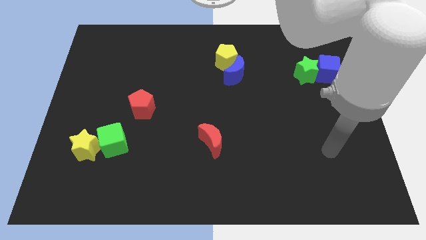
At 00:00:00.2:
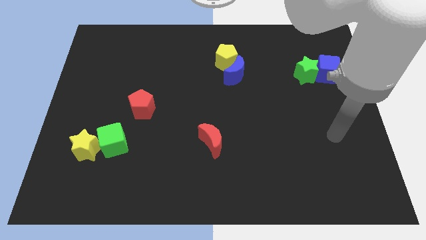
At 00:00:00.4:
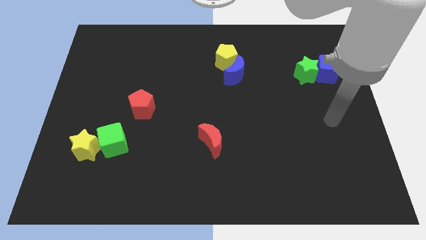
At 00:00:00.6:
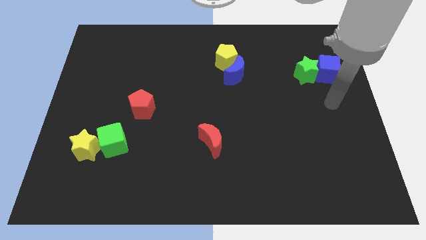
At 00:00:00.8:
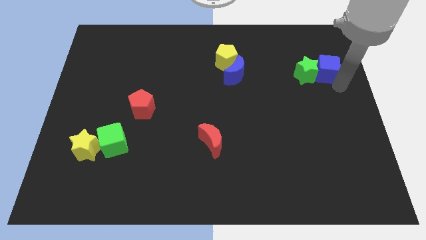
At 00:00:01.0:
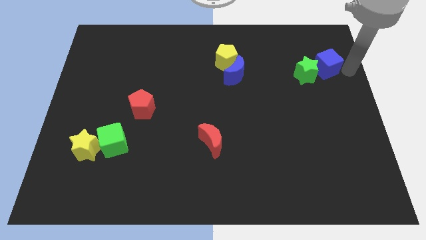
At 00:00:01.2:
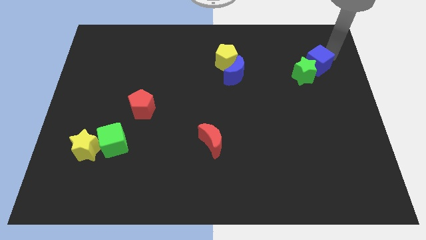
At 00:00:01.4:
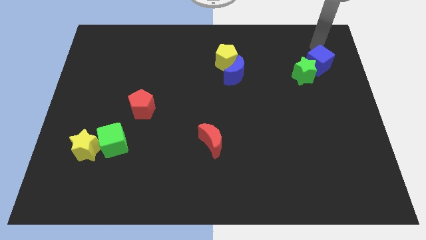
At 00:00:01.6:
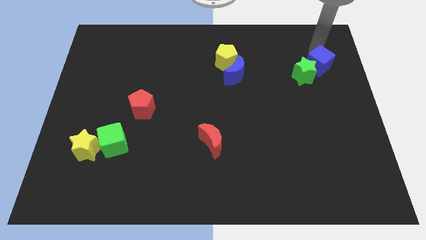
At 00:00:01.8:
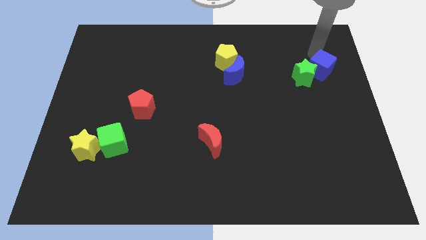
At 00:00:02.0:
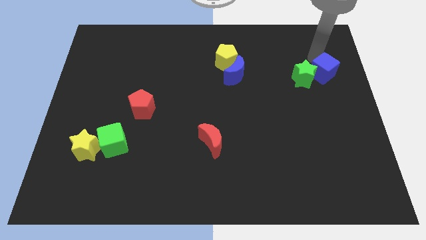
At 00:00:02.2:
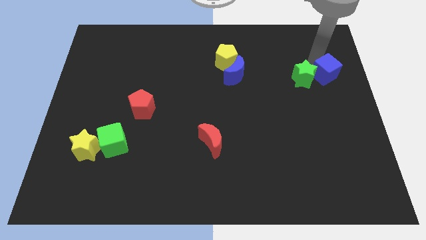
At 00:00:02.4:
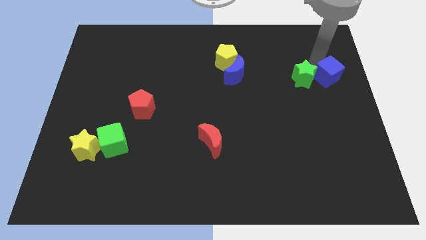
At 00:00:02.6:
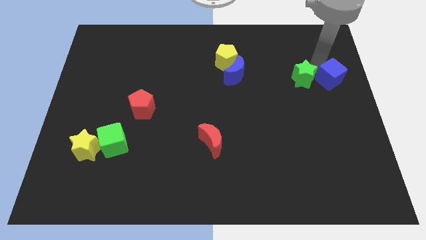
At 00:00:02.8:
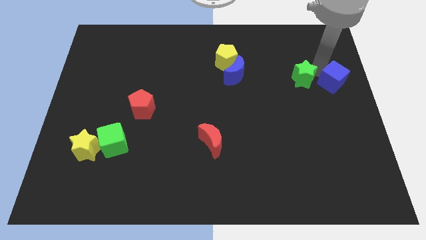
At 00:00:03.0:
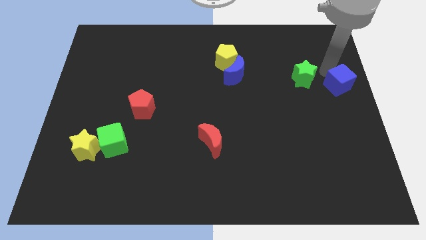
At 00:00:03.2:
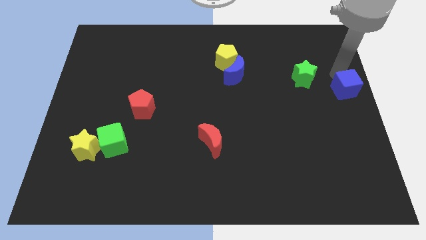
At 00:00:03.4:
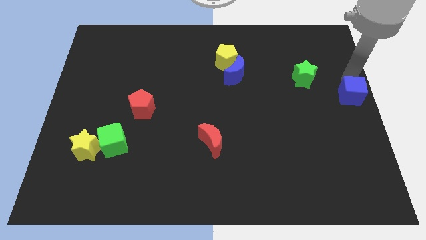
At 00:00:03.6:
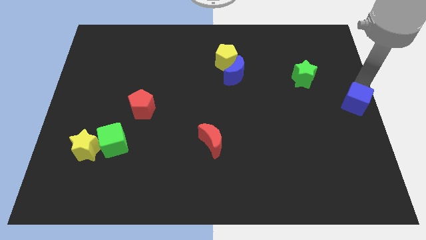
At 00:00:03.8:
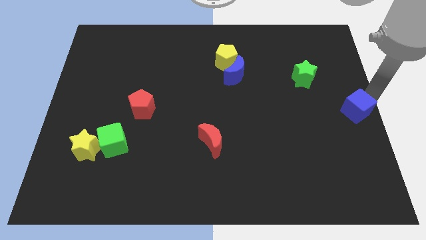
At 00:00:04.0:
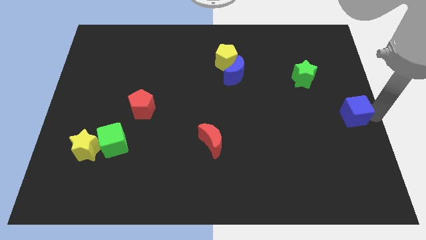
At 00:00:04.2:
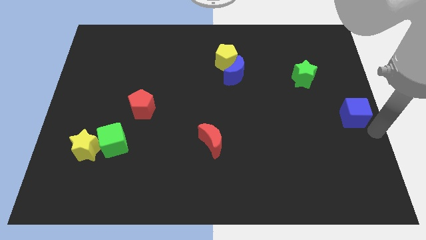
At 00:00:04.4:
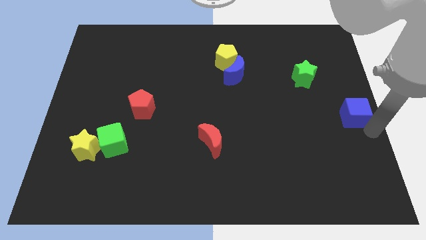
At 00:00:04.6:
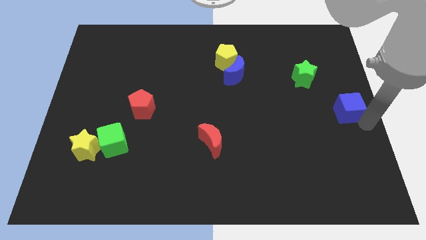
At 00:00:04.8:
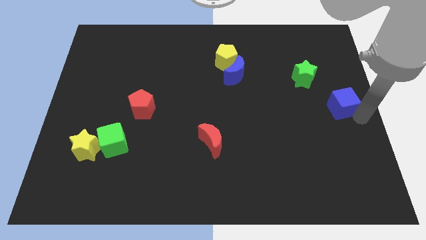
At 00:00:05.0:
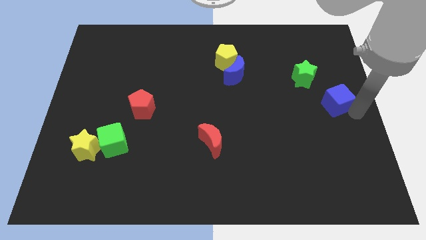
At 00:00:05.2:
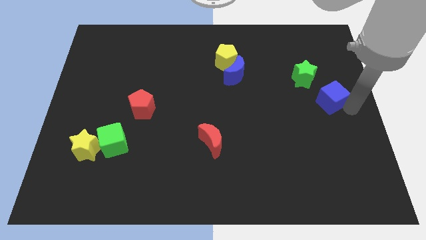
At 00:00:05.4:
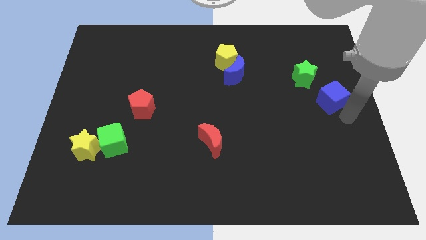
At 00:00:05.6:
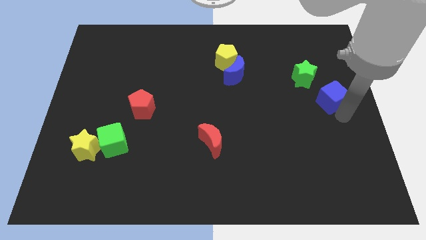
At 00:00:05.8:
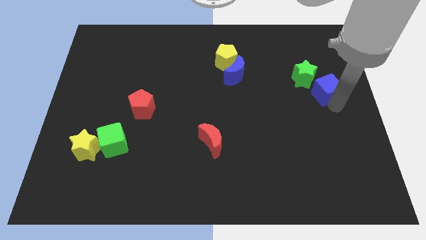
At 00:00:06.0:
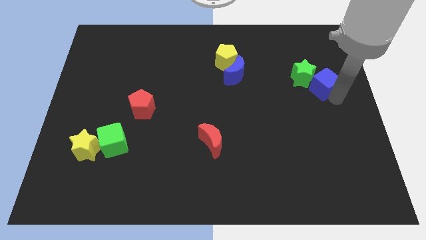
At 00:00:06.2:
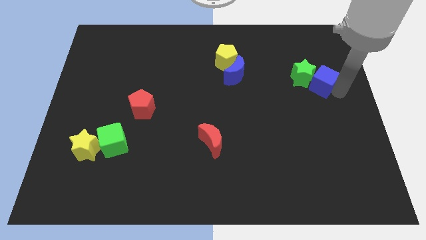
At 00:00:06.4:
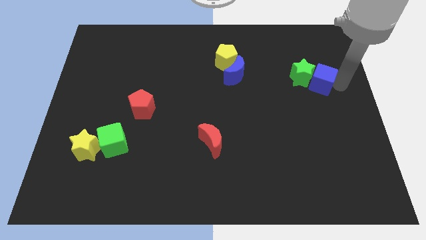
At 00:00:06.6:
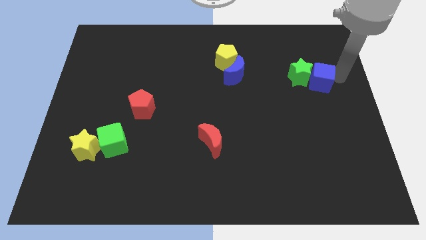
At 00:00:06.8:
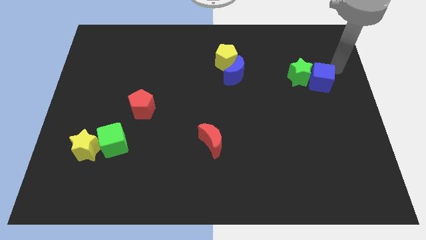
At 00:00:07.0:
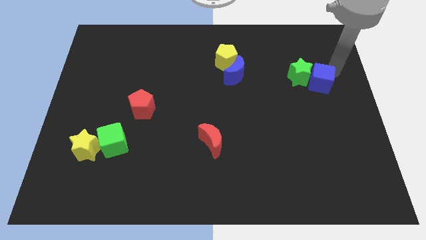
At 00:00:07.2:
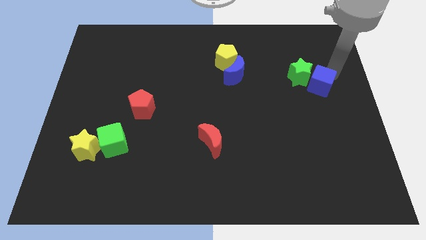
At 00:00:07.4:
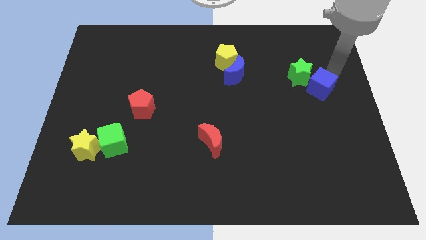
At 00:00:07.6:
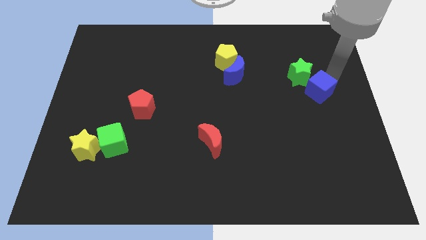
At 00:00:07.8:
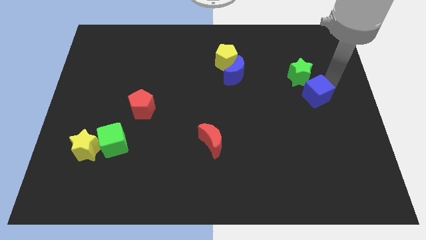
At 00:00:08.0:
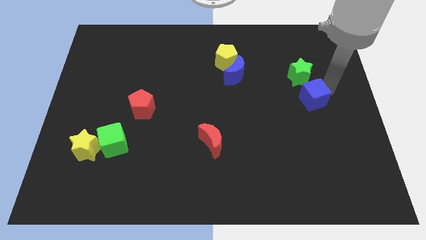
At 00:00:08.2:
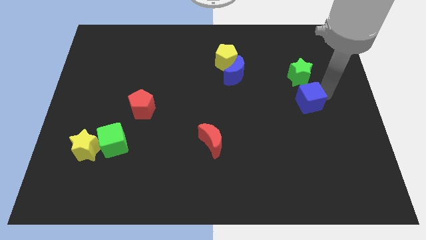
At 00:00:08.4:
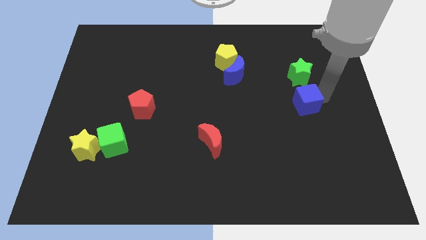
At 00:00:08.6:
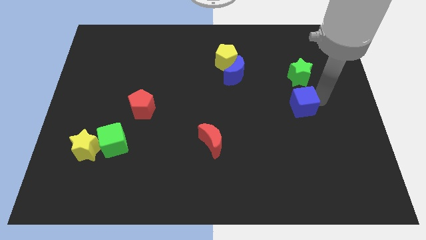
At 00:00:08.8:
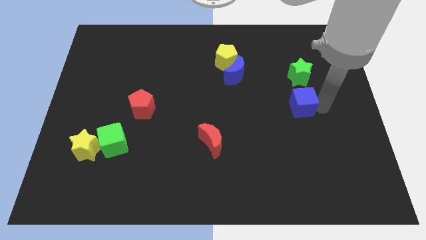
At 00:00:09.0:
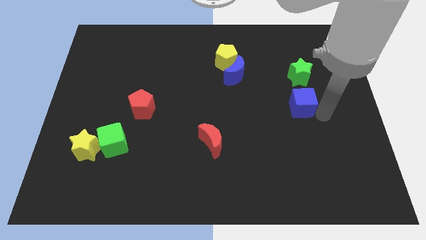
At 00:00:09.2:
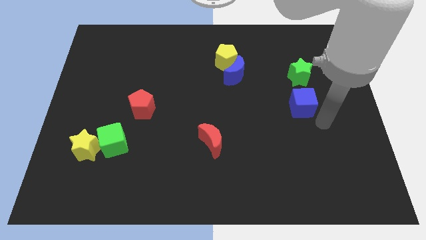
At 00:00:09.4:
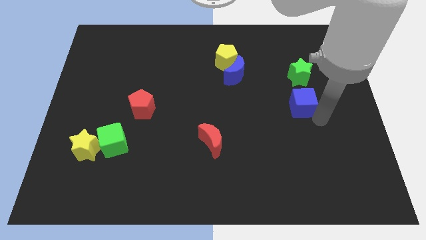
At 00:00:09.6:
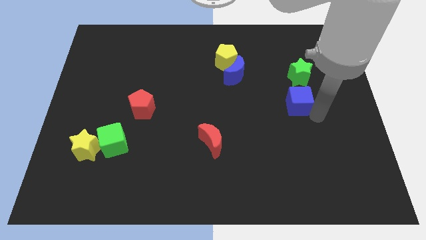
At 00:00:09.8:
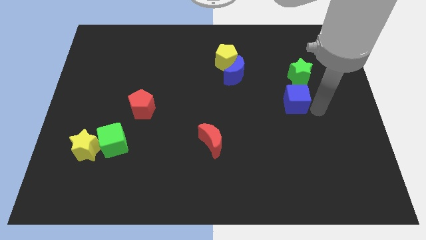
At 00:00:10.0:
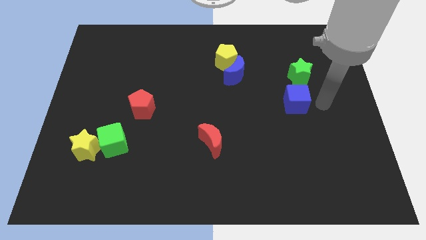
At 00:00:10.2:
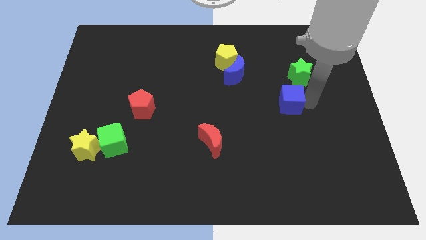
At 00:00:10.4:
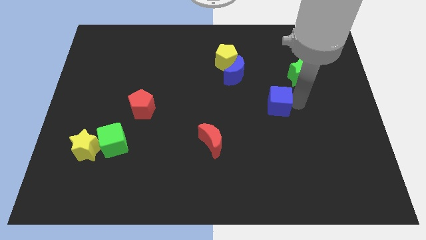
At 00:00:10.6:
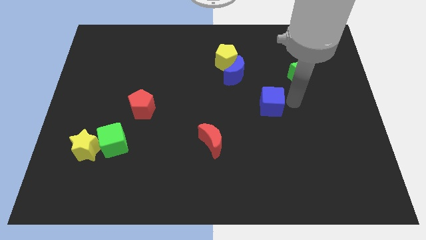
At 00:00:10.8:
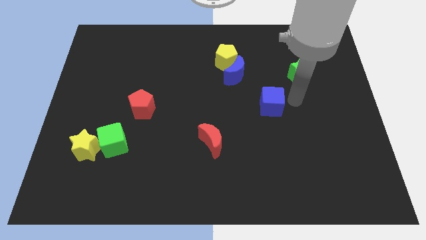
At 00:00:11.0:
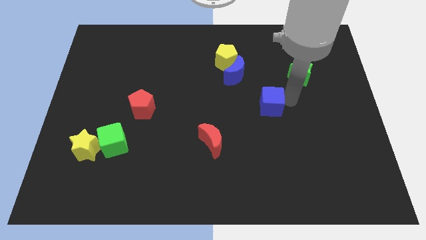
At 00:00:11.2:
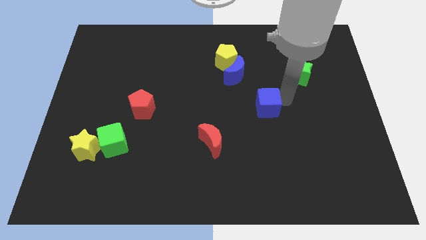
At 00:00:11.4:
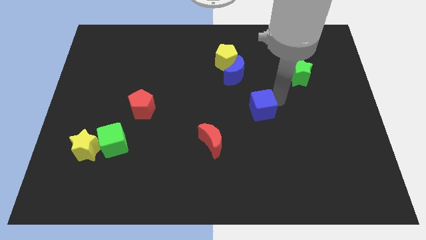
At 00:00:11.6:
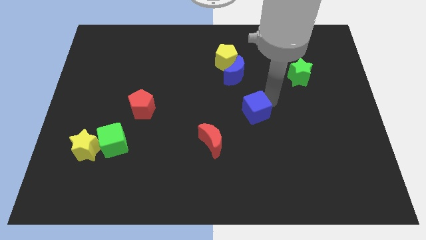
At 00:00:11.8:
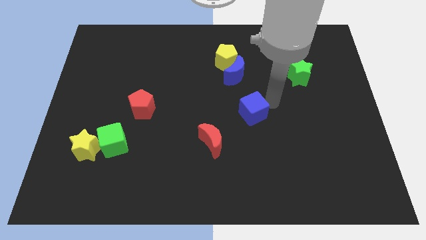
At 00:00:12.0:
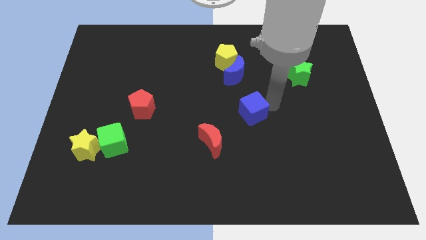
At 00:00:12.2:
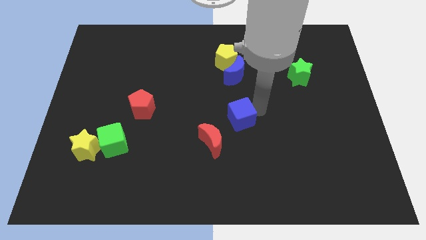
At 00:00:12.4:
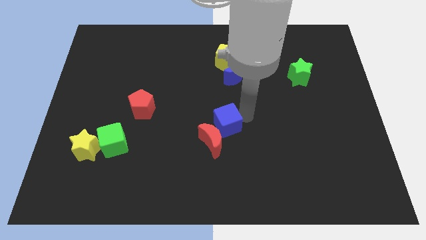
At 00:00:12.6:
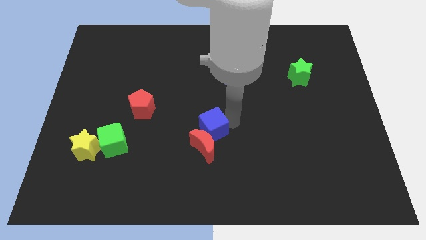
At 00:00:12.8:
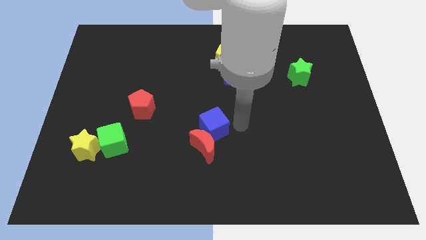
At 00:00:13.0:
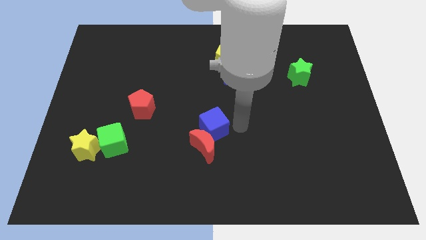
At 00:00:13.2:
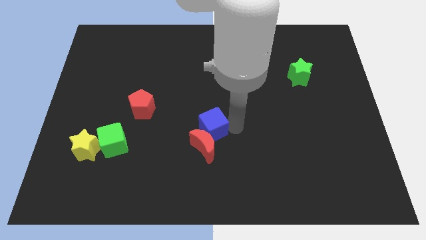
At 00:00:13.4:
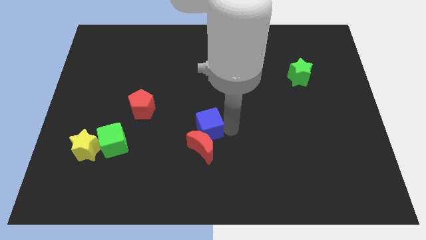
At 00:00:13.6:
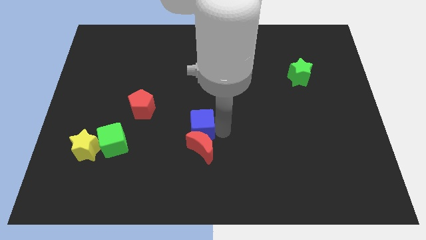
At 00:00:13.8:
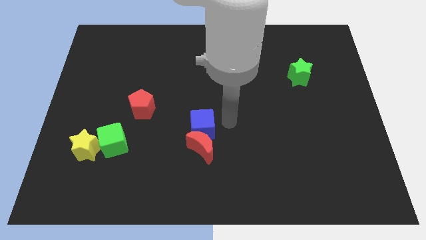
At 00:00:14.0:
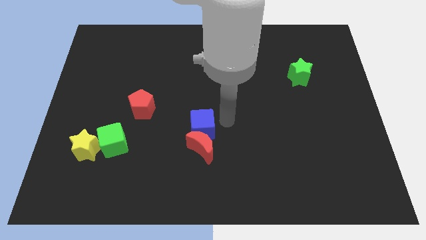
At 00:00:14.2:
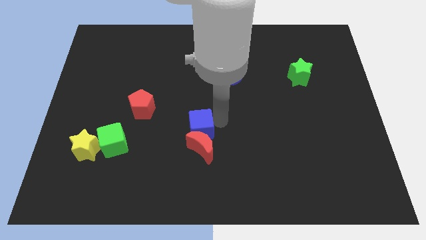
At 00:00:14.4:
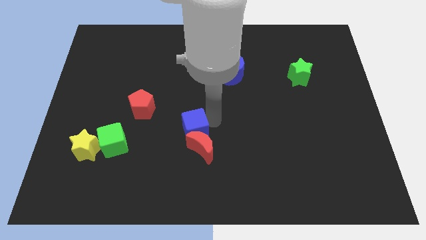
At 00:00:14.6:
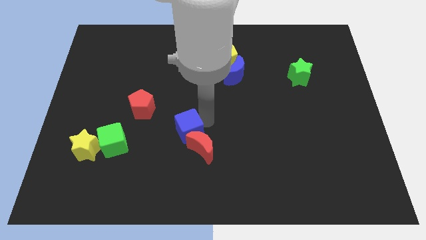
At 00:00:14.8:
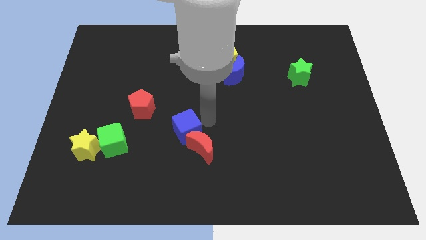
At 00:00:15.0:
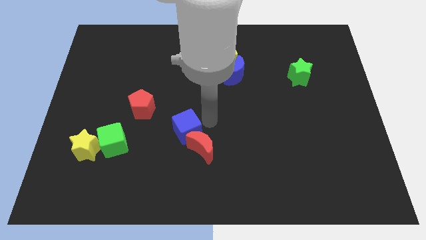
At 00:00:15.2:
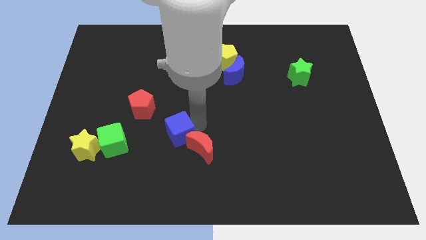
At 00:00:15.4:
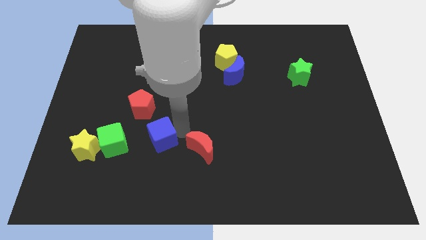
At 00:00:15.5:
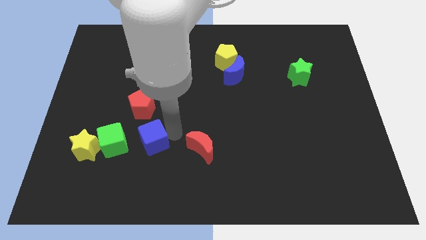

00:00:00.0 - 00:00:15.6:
put the blue cube below the red pentagon
